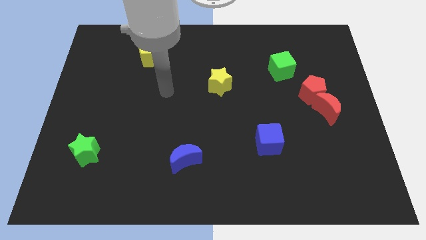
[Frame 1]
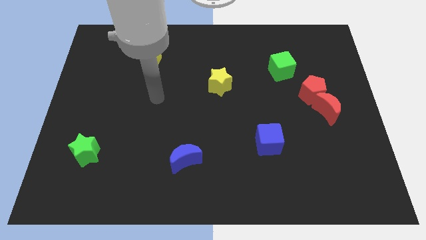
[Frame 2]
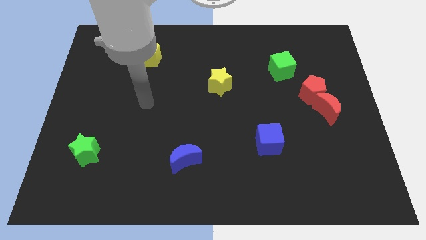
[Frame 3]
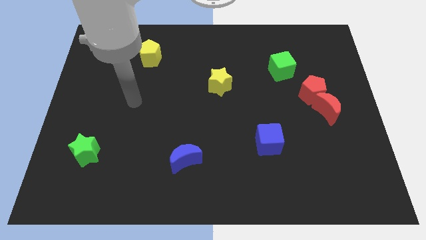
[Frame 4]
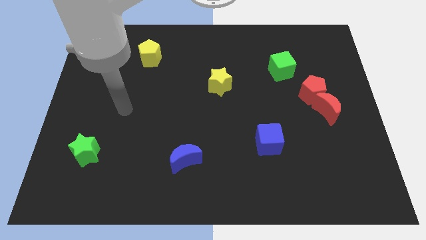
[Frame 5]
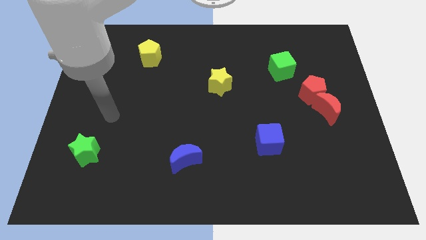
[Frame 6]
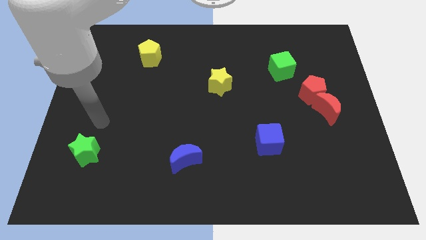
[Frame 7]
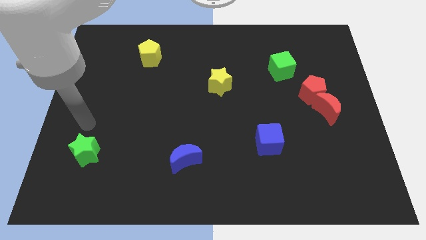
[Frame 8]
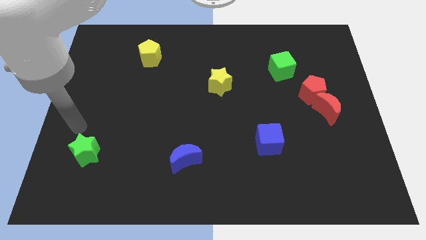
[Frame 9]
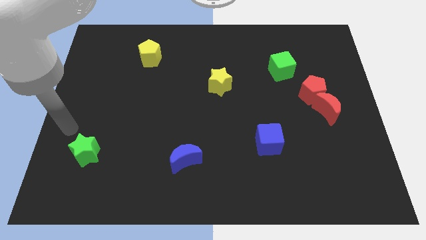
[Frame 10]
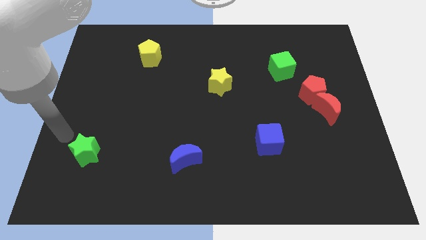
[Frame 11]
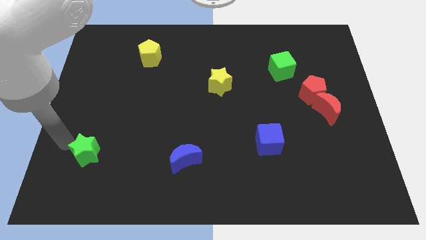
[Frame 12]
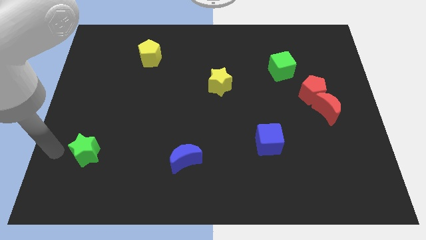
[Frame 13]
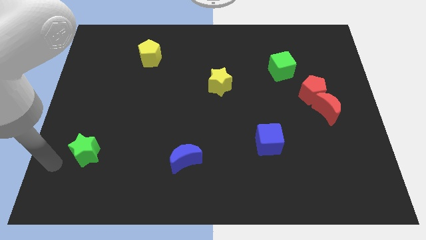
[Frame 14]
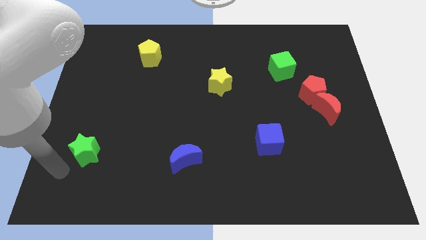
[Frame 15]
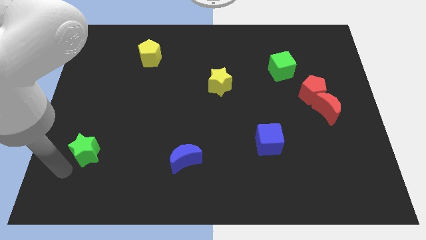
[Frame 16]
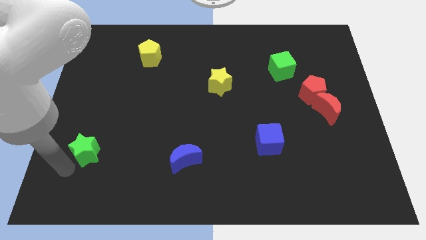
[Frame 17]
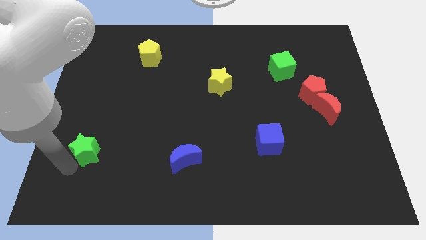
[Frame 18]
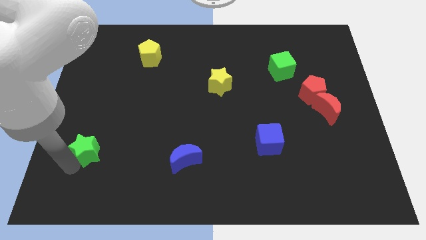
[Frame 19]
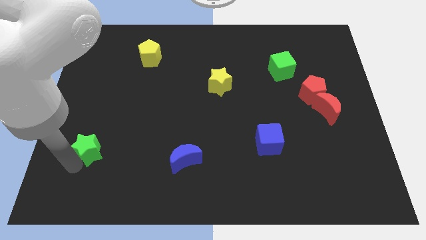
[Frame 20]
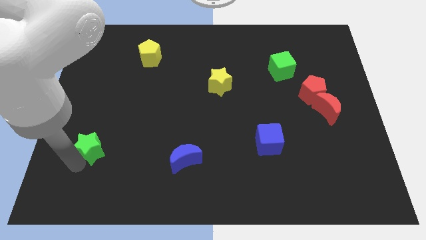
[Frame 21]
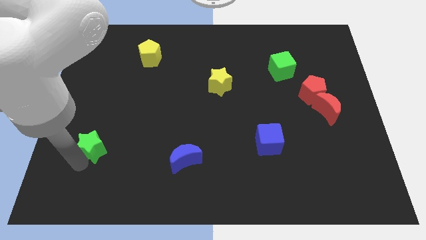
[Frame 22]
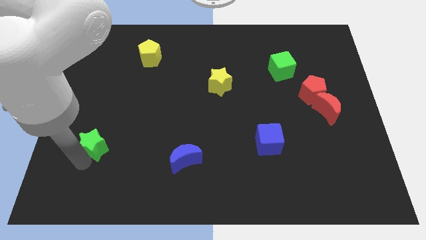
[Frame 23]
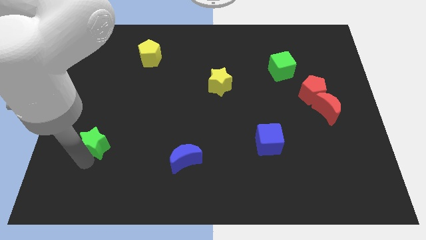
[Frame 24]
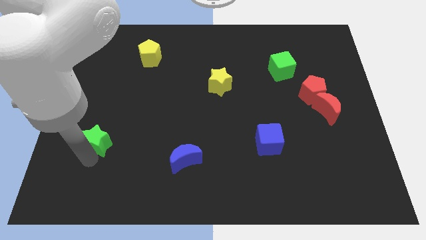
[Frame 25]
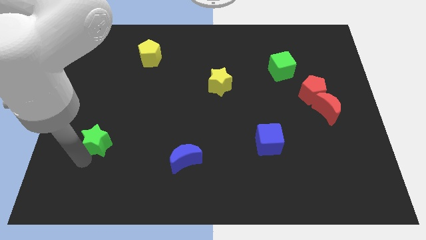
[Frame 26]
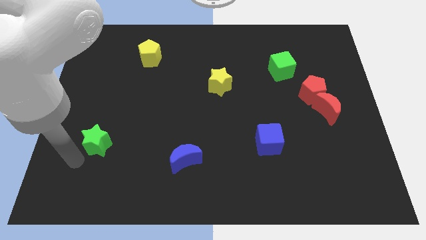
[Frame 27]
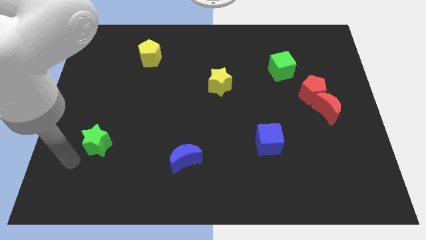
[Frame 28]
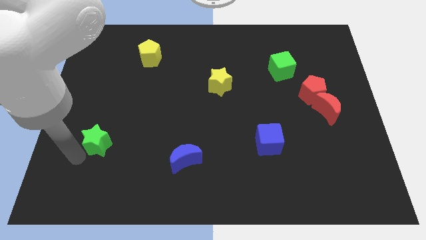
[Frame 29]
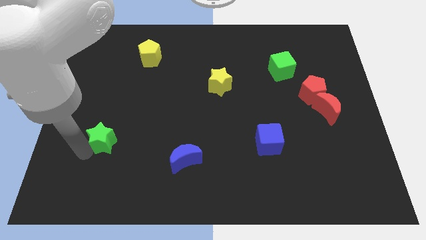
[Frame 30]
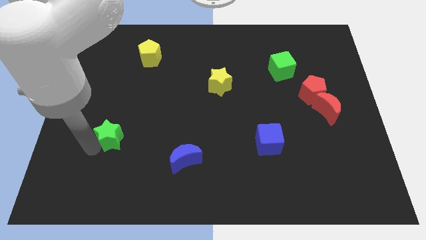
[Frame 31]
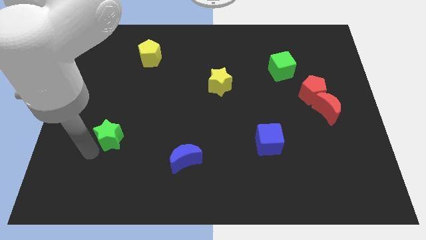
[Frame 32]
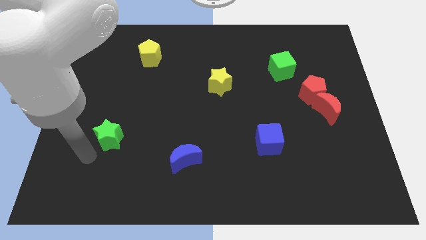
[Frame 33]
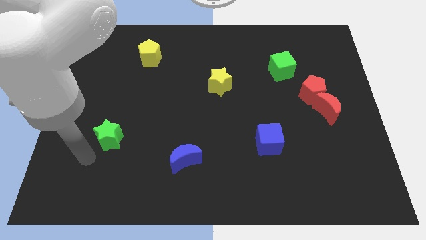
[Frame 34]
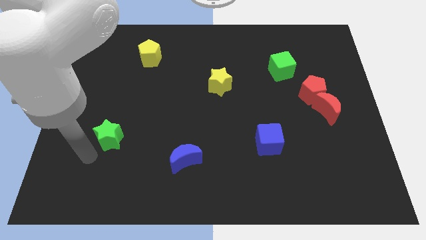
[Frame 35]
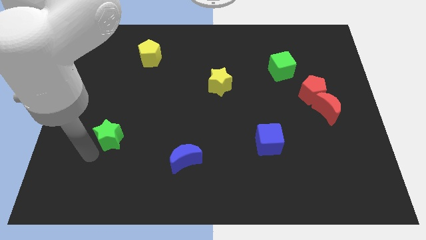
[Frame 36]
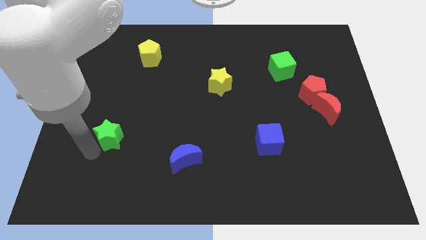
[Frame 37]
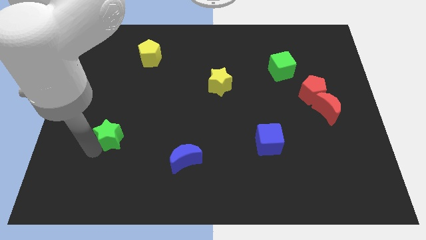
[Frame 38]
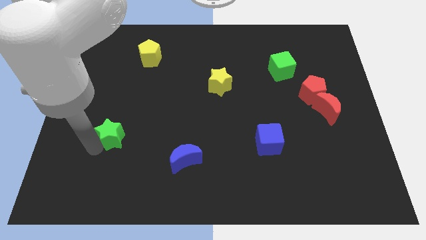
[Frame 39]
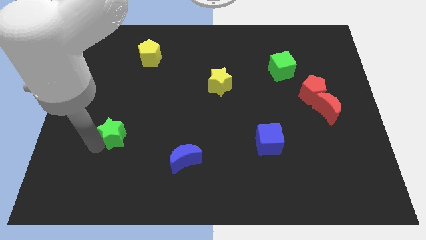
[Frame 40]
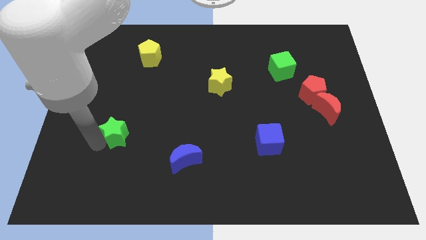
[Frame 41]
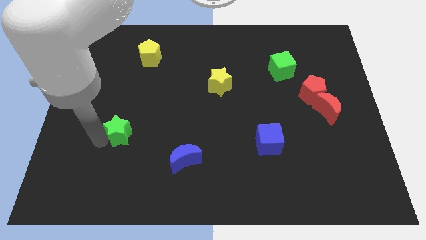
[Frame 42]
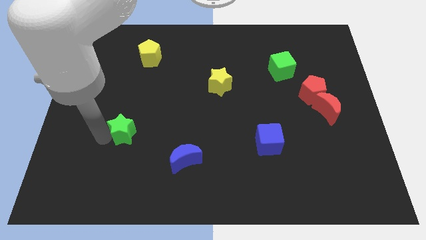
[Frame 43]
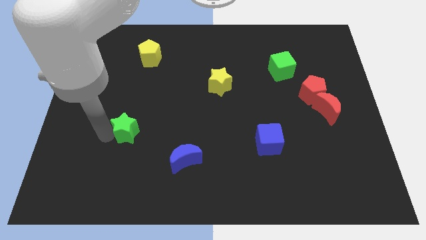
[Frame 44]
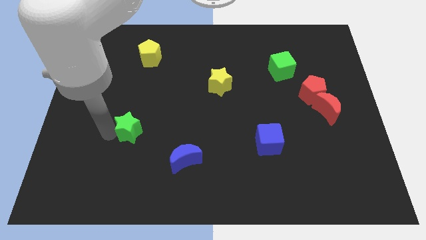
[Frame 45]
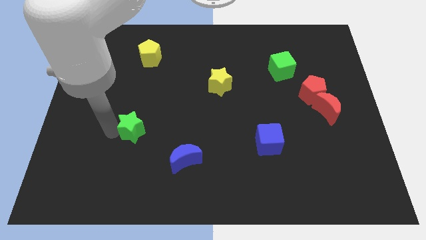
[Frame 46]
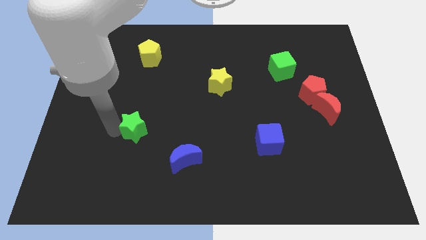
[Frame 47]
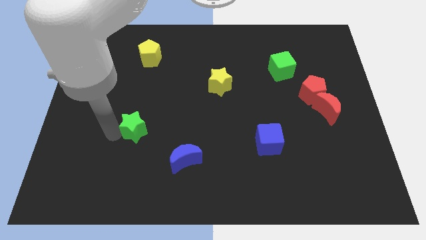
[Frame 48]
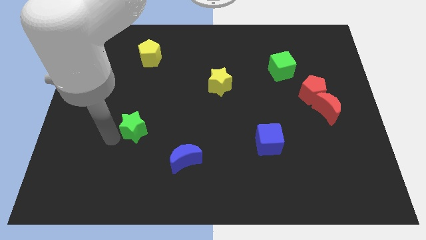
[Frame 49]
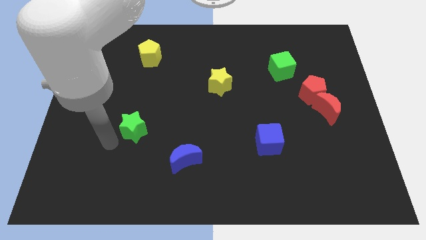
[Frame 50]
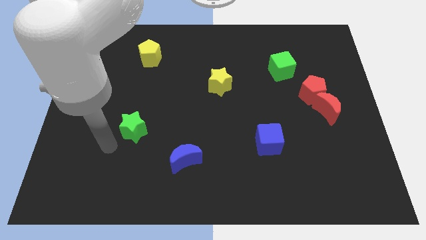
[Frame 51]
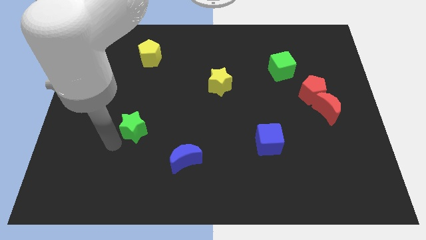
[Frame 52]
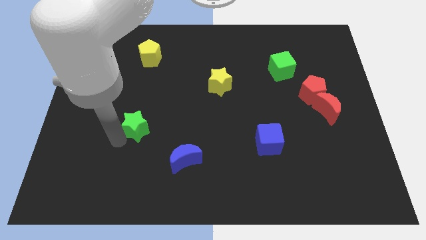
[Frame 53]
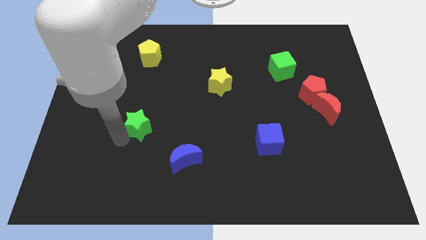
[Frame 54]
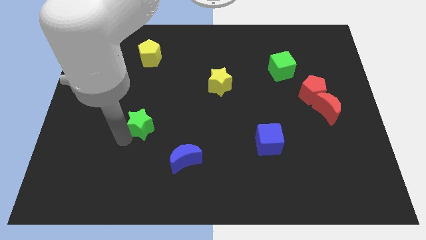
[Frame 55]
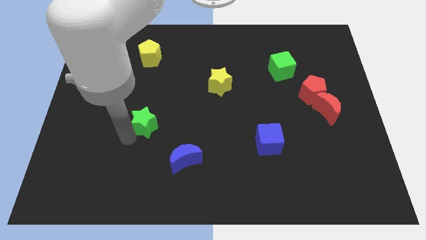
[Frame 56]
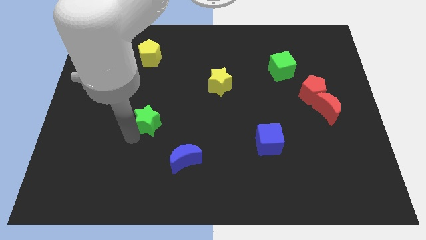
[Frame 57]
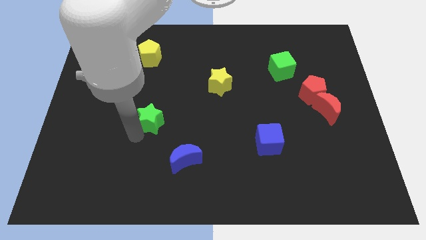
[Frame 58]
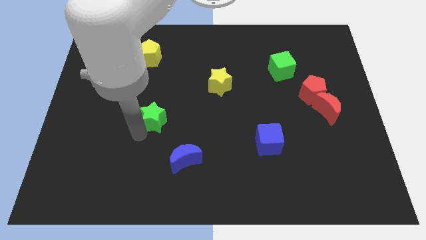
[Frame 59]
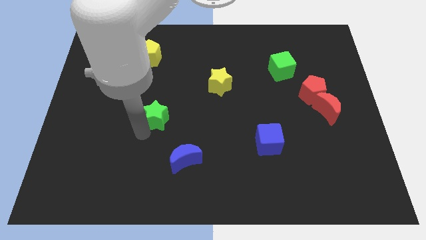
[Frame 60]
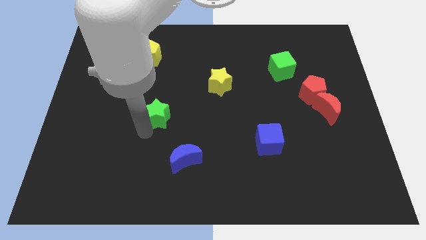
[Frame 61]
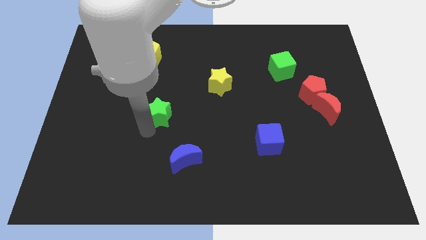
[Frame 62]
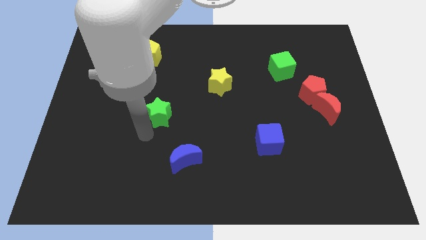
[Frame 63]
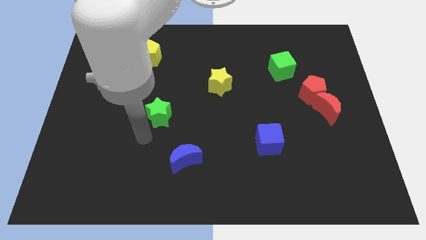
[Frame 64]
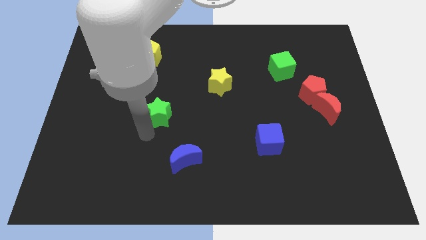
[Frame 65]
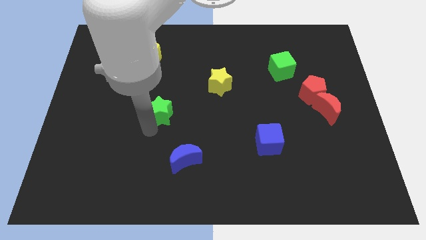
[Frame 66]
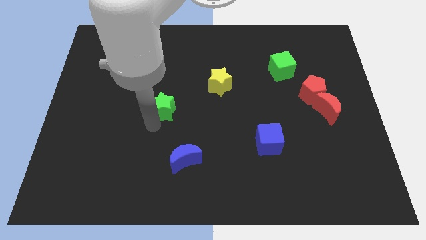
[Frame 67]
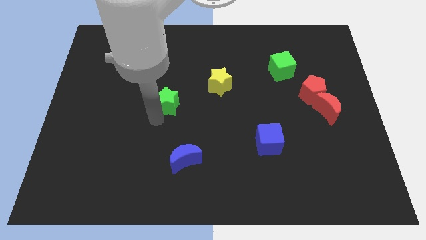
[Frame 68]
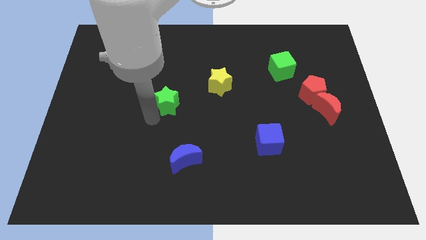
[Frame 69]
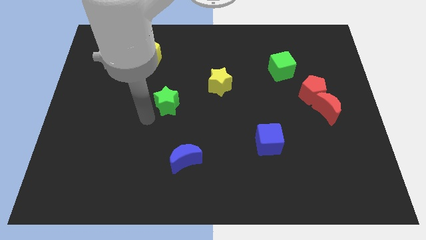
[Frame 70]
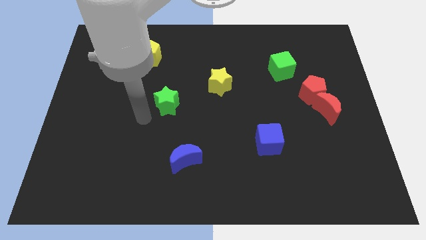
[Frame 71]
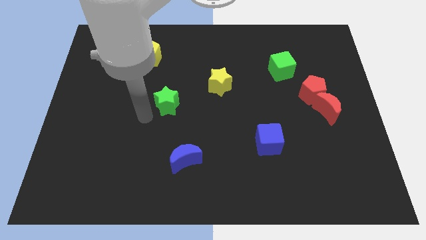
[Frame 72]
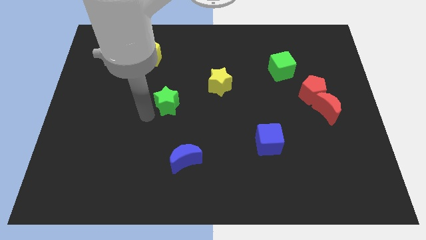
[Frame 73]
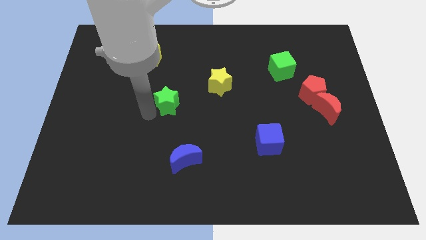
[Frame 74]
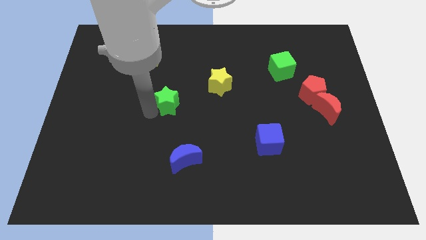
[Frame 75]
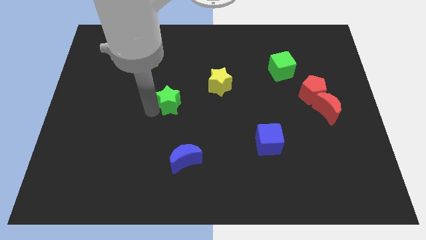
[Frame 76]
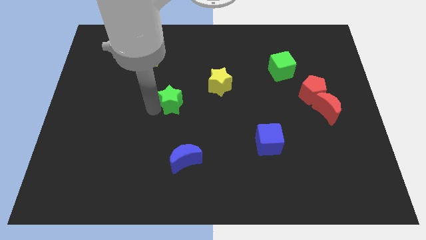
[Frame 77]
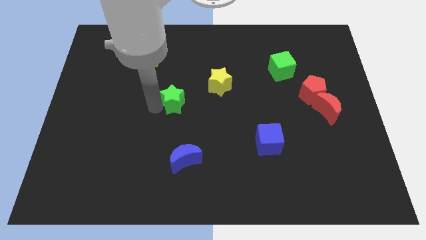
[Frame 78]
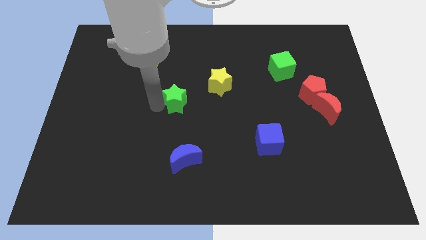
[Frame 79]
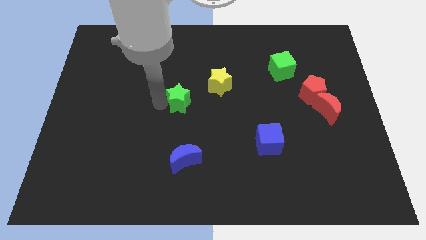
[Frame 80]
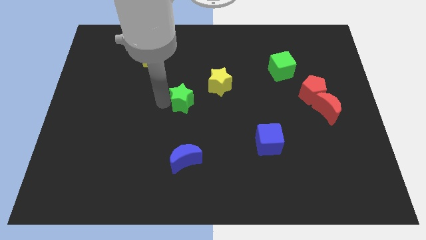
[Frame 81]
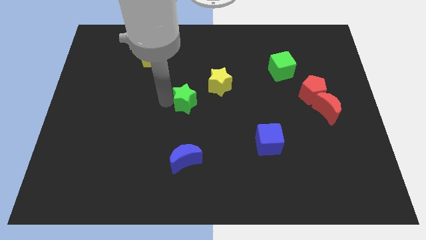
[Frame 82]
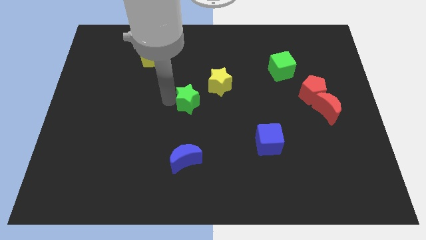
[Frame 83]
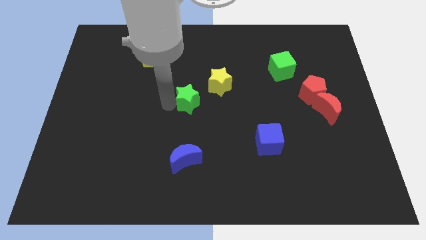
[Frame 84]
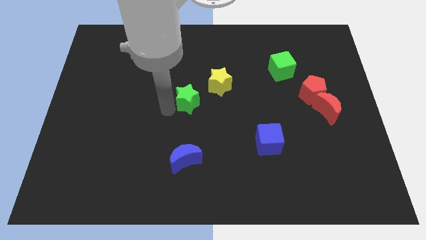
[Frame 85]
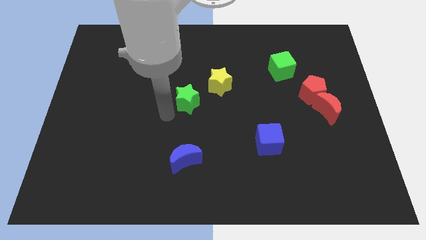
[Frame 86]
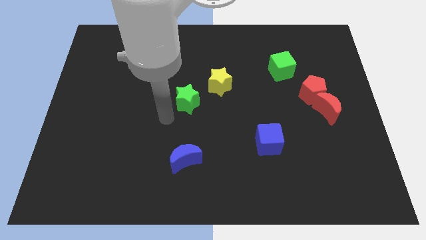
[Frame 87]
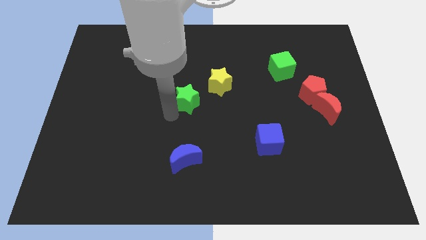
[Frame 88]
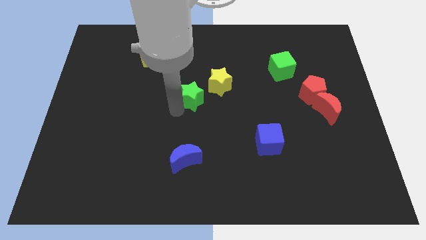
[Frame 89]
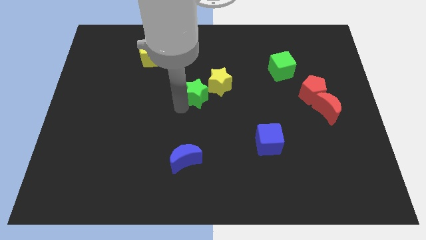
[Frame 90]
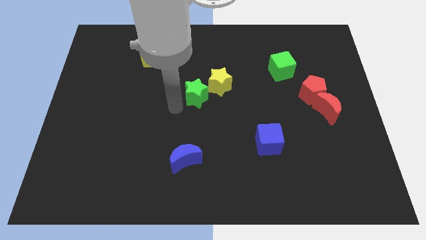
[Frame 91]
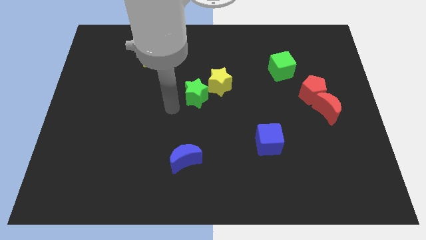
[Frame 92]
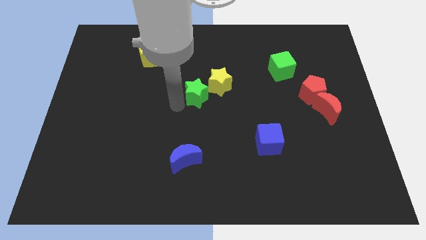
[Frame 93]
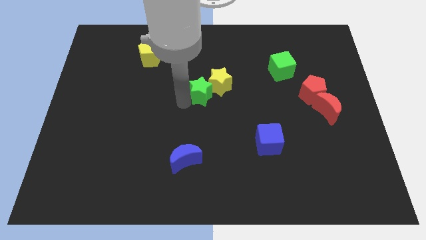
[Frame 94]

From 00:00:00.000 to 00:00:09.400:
slide the green star next to the yellow star
